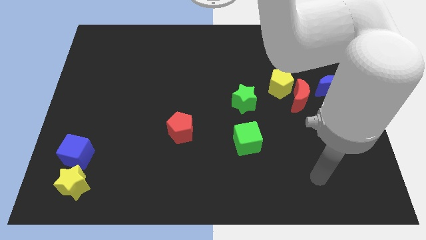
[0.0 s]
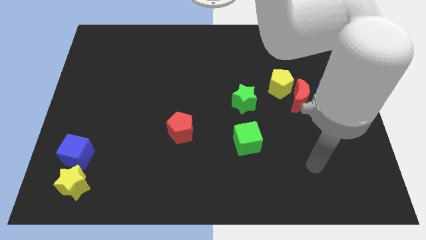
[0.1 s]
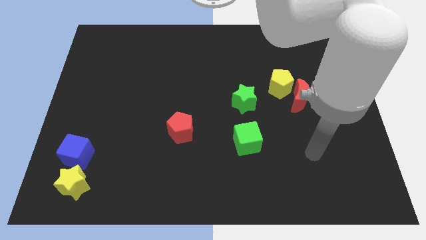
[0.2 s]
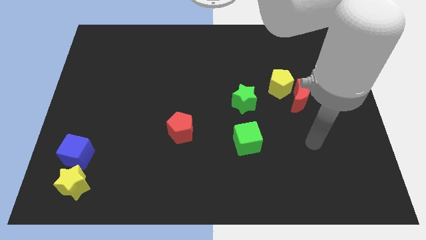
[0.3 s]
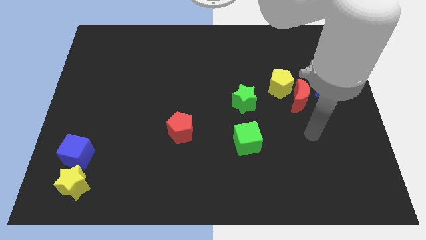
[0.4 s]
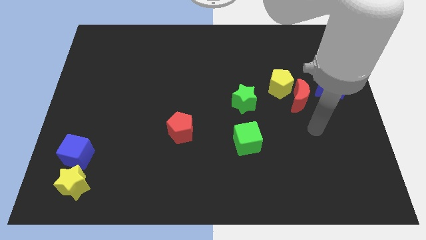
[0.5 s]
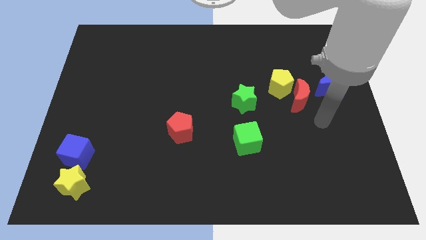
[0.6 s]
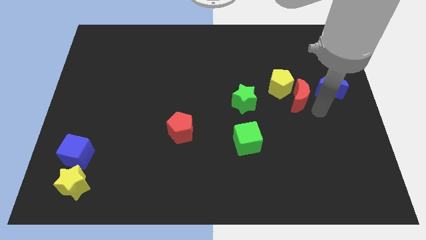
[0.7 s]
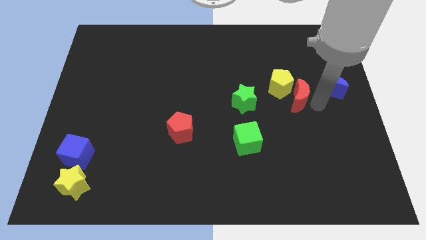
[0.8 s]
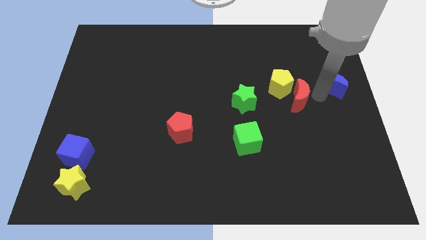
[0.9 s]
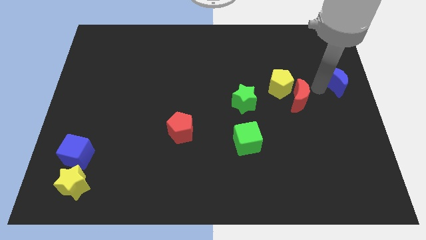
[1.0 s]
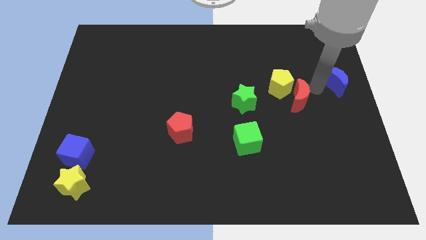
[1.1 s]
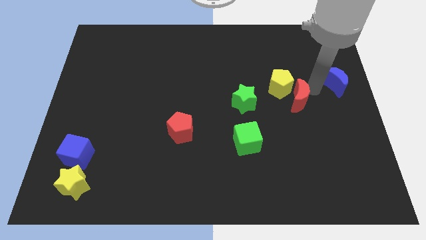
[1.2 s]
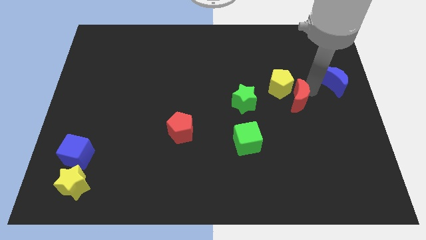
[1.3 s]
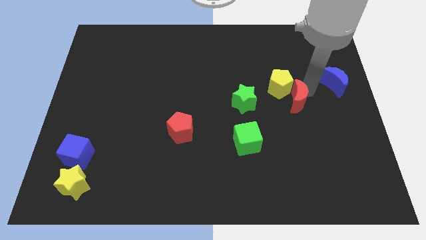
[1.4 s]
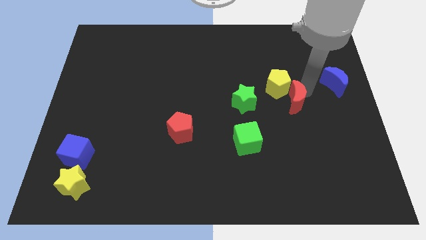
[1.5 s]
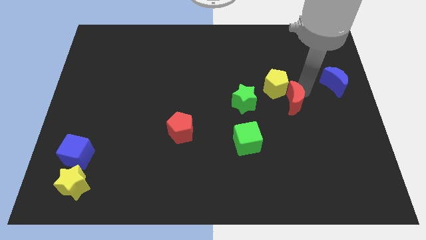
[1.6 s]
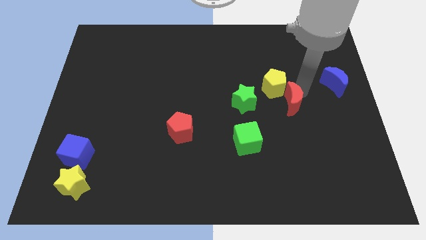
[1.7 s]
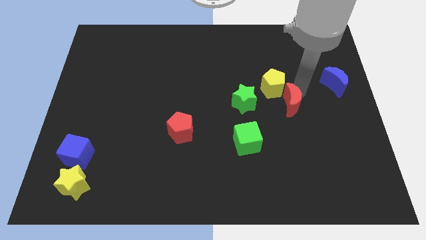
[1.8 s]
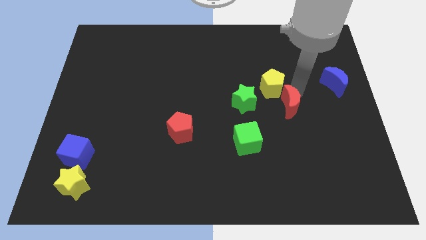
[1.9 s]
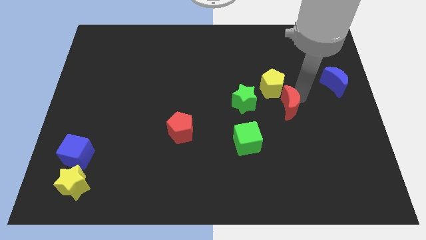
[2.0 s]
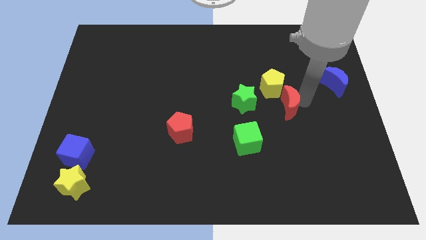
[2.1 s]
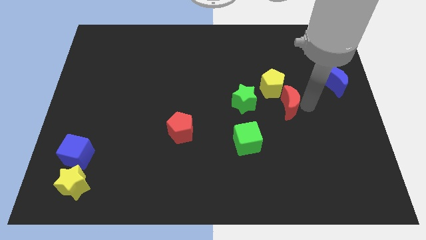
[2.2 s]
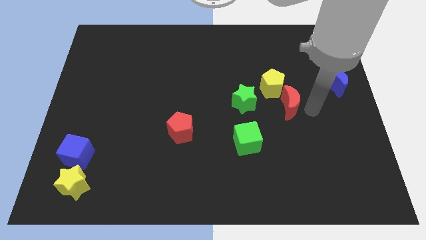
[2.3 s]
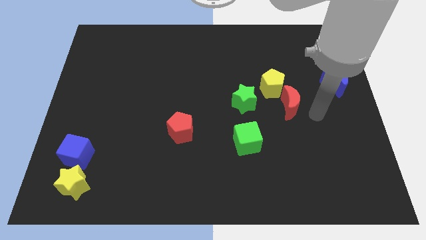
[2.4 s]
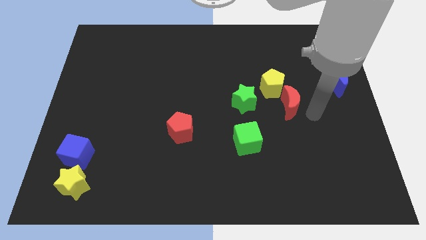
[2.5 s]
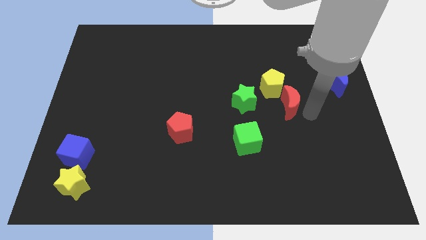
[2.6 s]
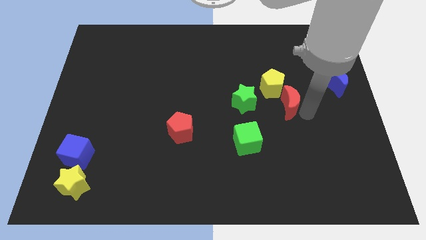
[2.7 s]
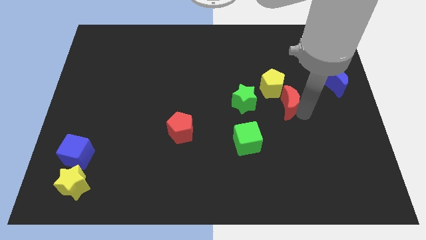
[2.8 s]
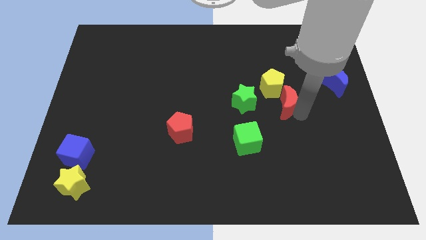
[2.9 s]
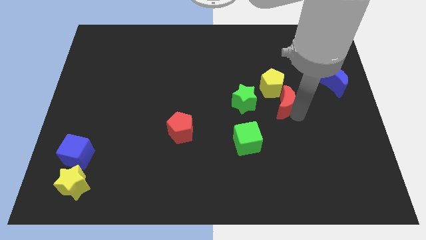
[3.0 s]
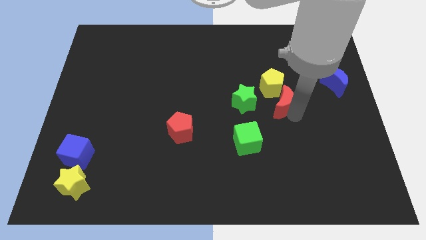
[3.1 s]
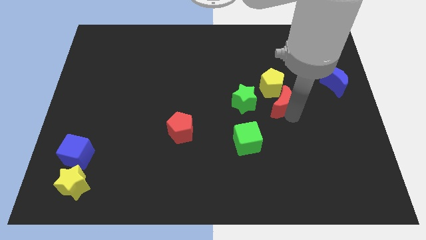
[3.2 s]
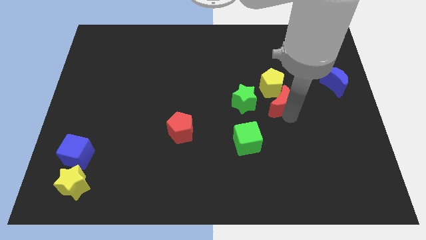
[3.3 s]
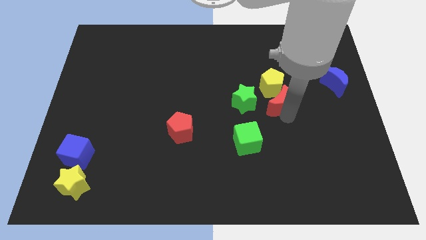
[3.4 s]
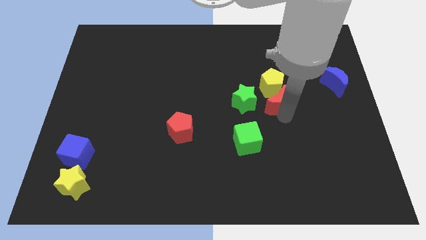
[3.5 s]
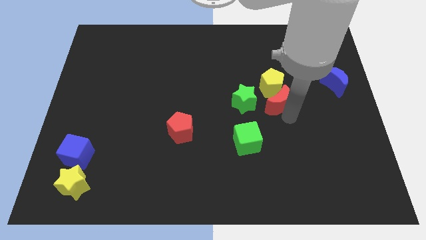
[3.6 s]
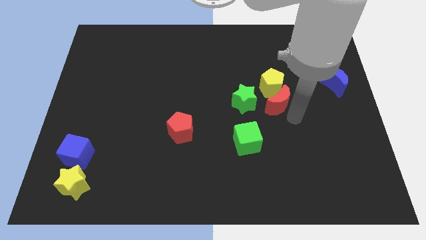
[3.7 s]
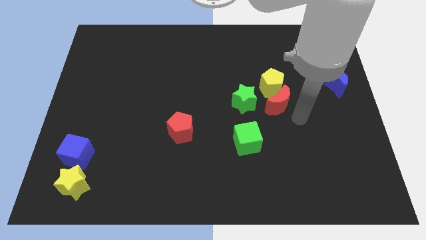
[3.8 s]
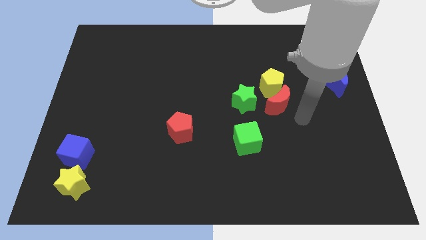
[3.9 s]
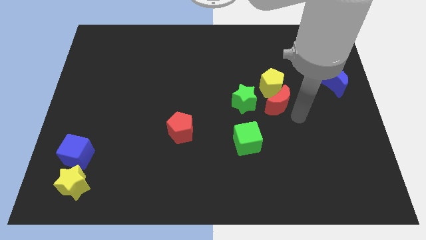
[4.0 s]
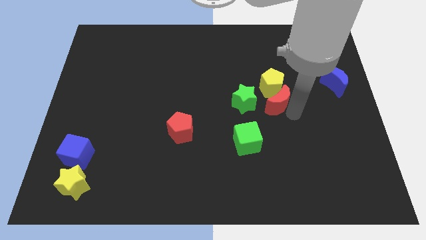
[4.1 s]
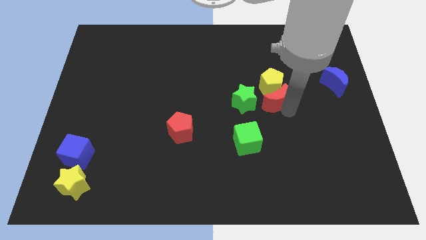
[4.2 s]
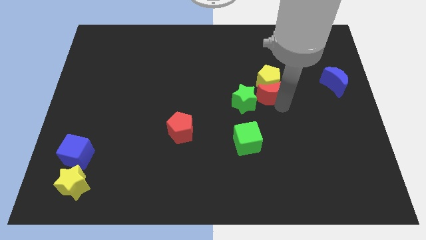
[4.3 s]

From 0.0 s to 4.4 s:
move the red moon a bit to the left

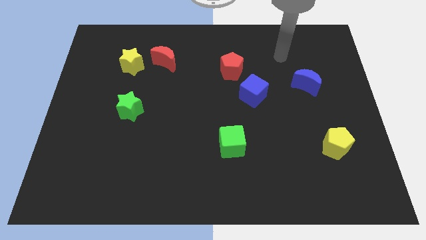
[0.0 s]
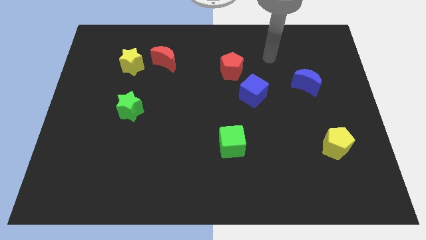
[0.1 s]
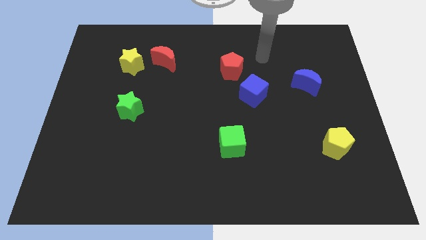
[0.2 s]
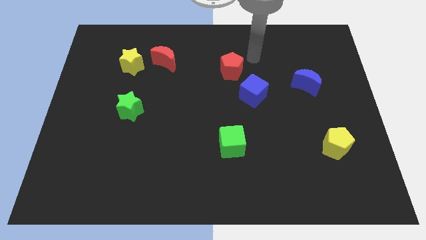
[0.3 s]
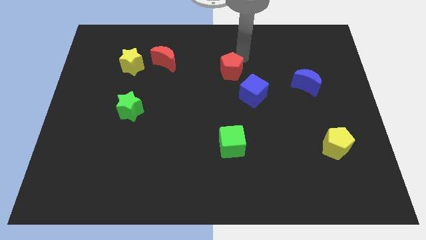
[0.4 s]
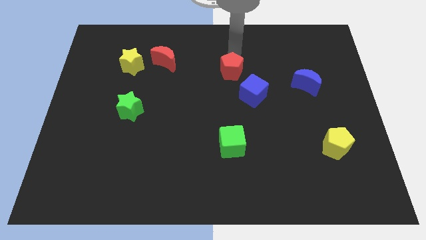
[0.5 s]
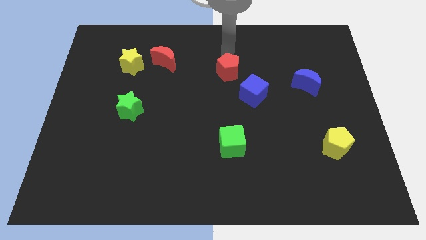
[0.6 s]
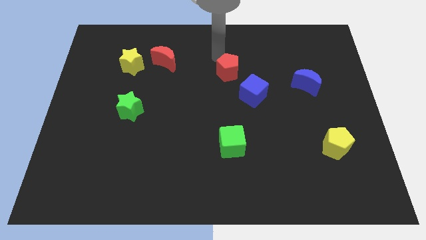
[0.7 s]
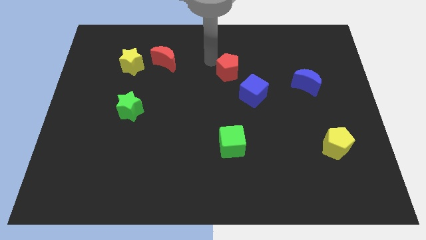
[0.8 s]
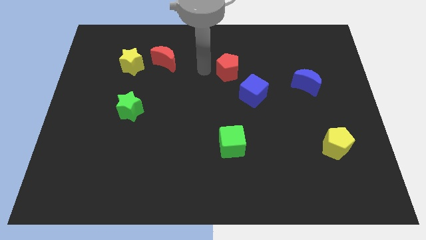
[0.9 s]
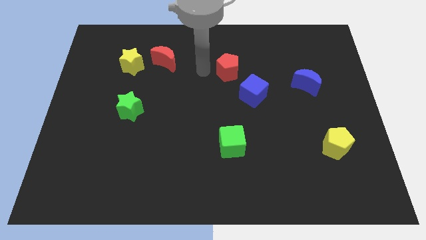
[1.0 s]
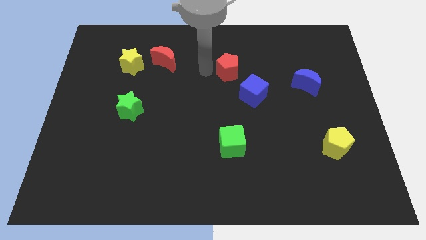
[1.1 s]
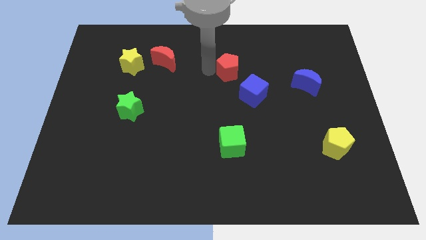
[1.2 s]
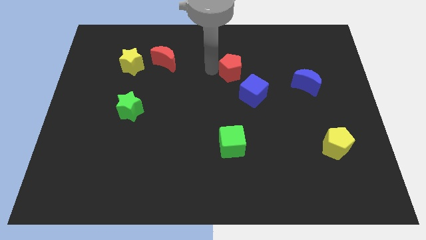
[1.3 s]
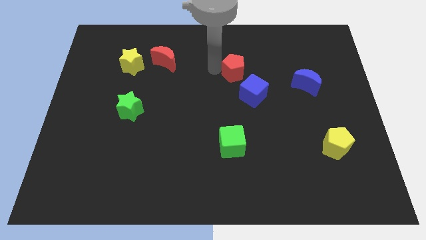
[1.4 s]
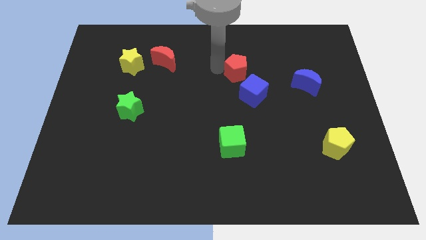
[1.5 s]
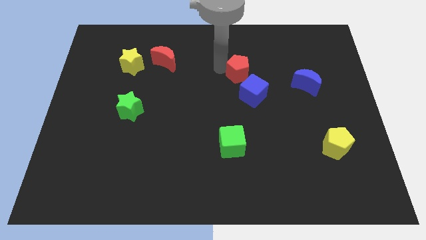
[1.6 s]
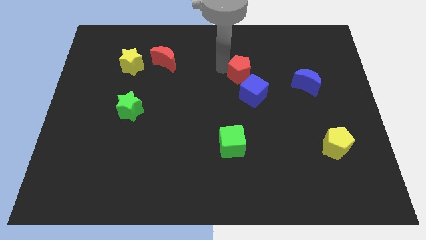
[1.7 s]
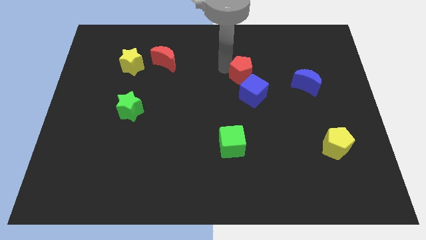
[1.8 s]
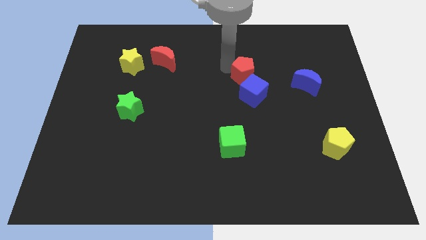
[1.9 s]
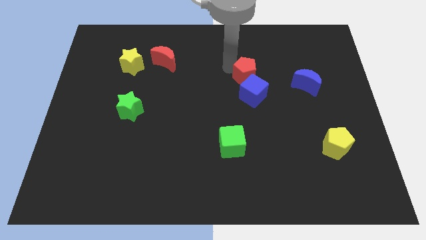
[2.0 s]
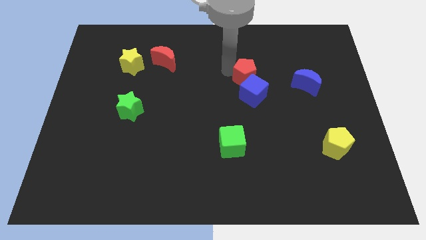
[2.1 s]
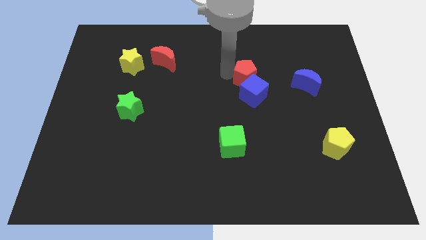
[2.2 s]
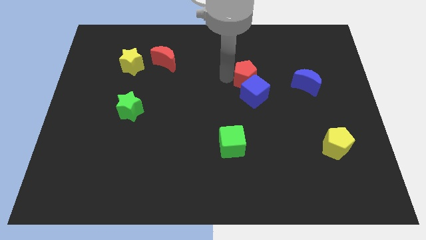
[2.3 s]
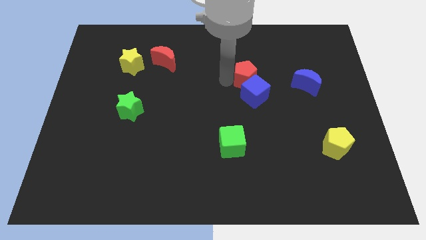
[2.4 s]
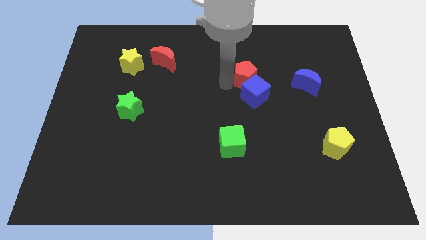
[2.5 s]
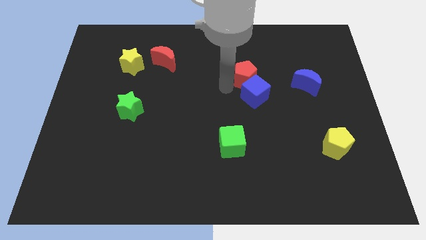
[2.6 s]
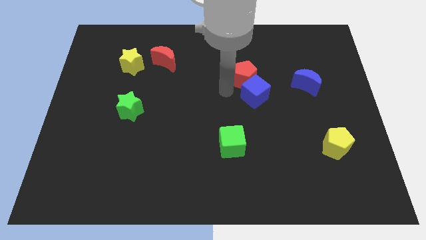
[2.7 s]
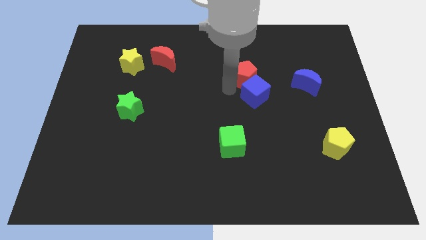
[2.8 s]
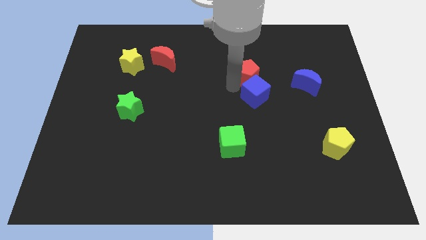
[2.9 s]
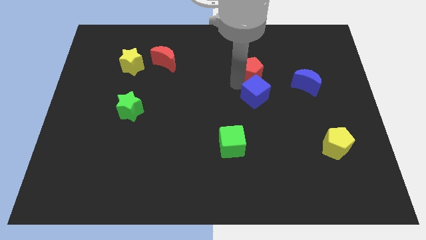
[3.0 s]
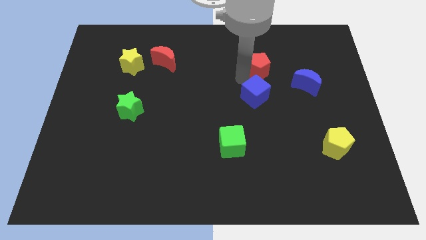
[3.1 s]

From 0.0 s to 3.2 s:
slightly slide the red pentagon right
